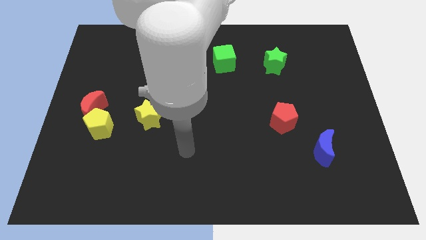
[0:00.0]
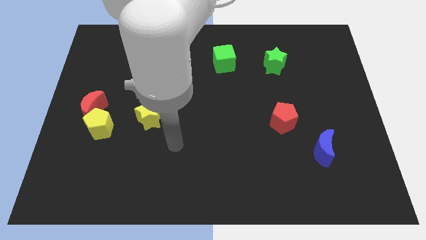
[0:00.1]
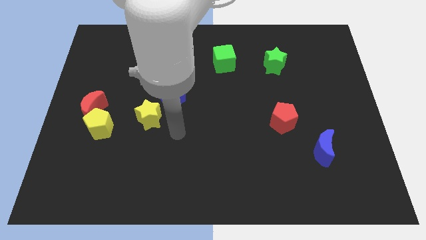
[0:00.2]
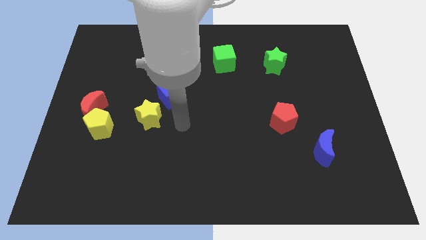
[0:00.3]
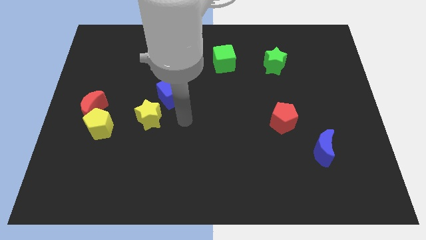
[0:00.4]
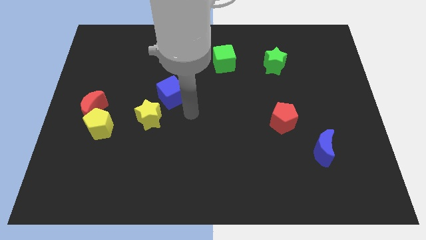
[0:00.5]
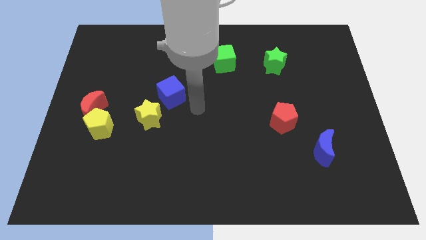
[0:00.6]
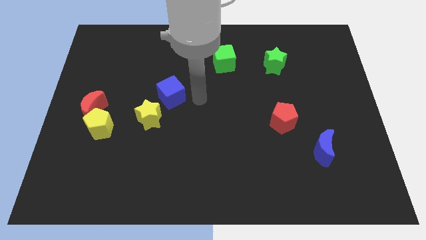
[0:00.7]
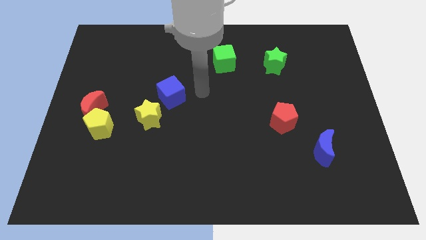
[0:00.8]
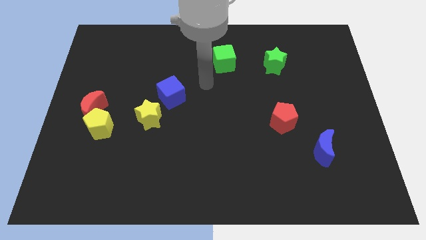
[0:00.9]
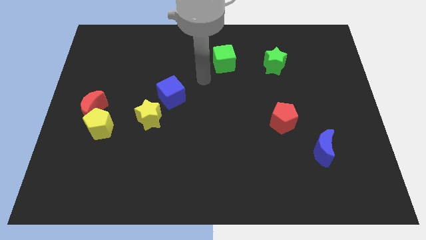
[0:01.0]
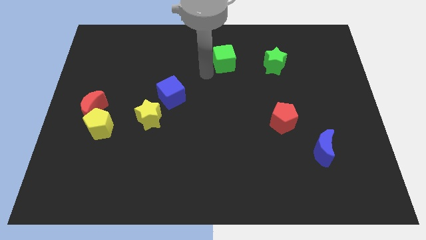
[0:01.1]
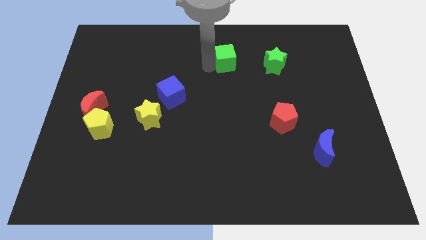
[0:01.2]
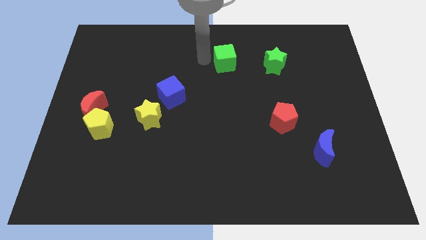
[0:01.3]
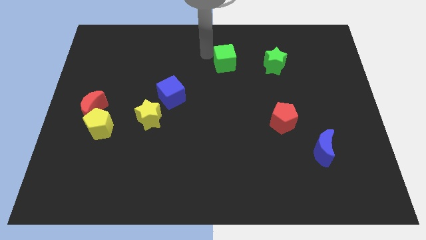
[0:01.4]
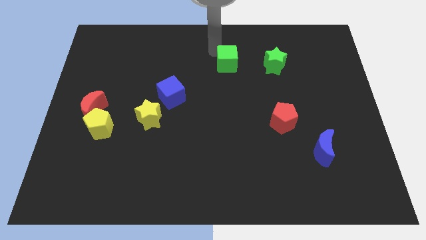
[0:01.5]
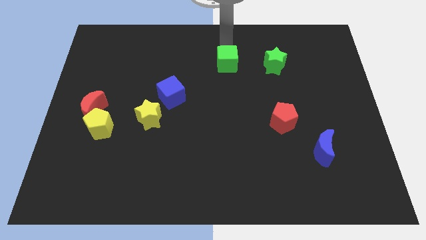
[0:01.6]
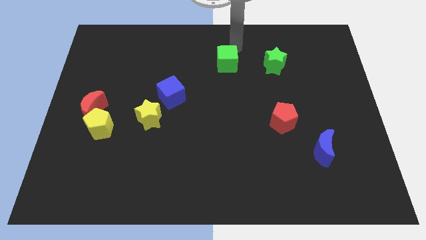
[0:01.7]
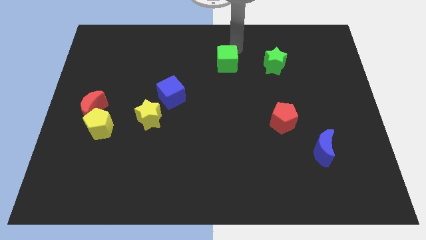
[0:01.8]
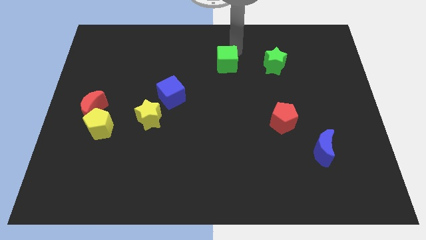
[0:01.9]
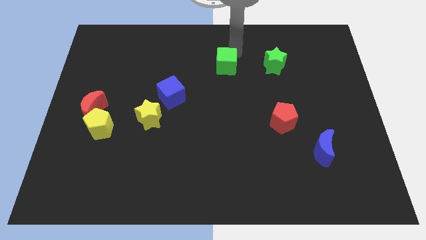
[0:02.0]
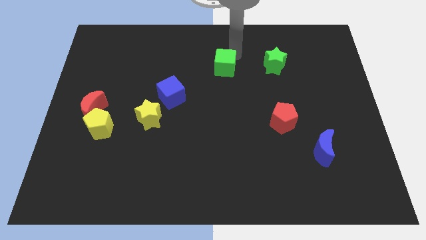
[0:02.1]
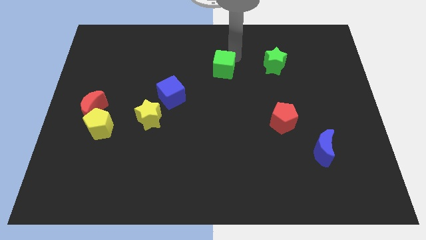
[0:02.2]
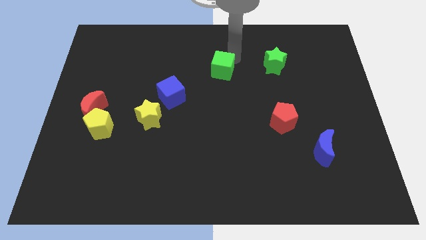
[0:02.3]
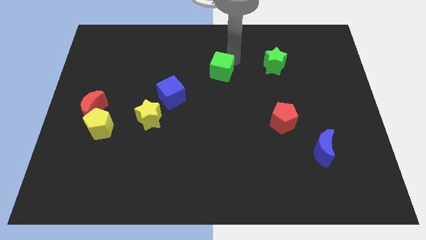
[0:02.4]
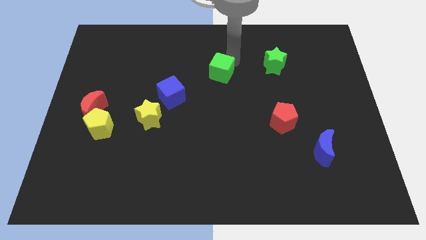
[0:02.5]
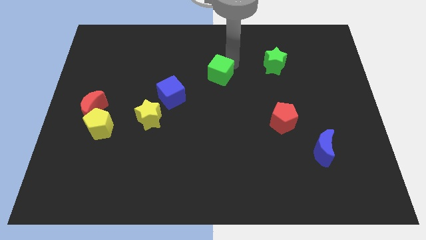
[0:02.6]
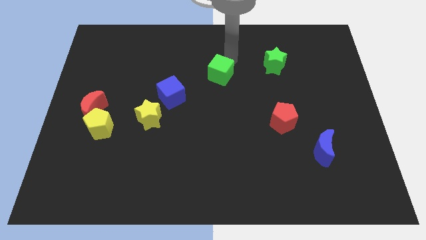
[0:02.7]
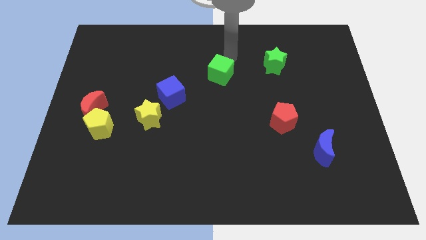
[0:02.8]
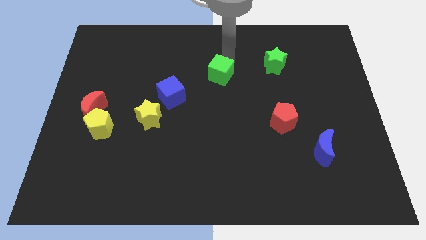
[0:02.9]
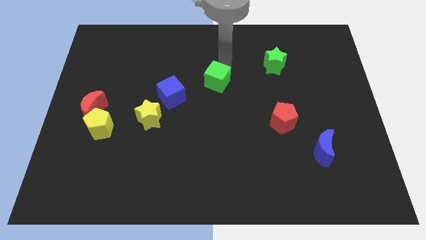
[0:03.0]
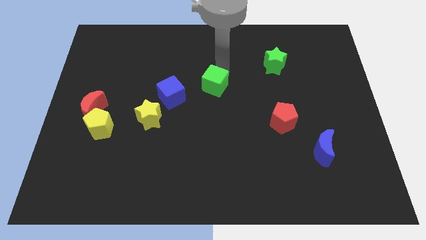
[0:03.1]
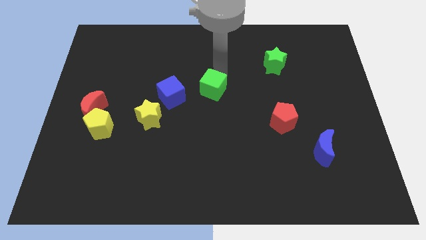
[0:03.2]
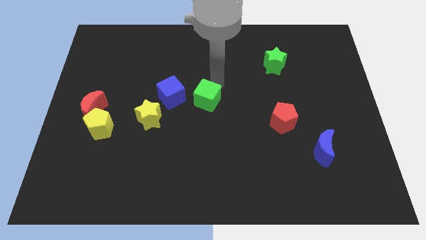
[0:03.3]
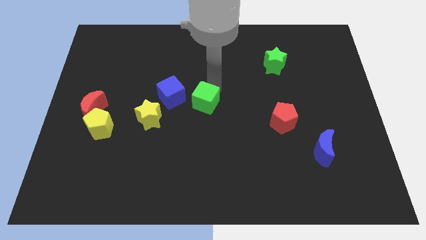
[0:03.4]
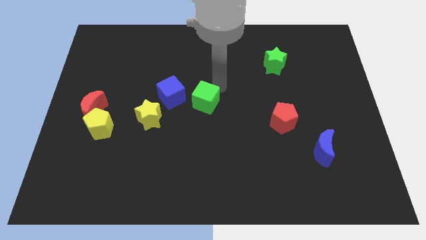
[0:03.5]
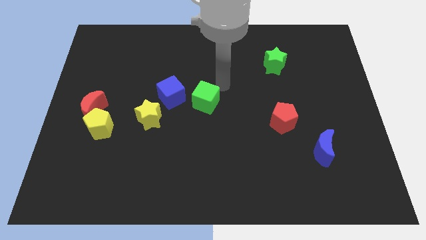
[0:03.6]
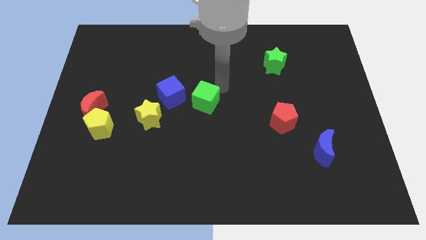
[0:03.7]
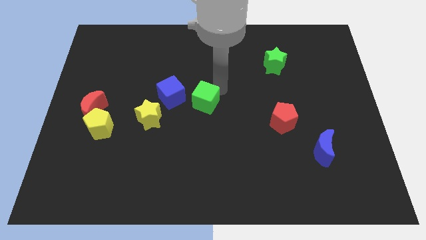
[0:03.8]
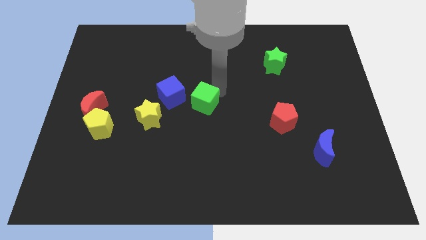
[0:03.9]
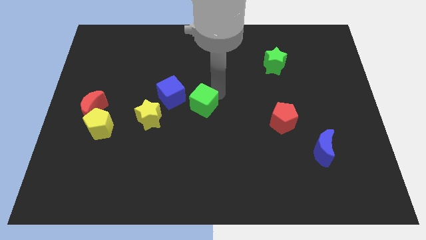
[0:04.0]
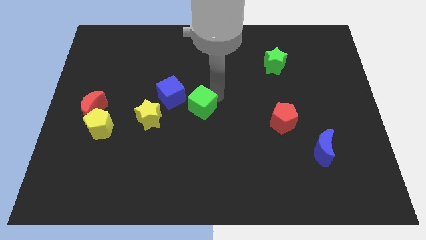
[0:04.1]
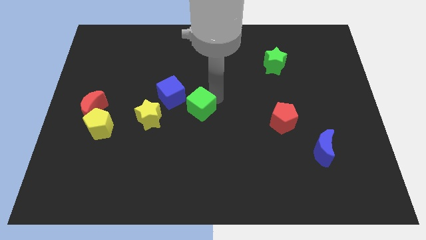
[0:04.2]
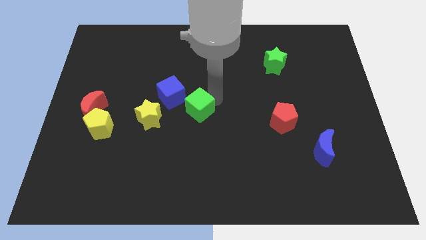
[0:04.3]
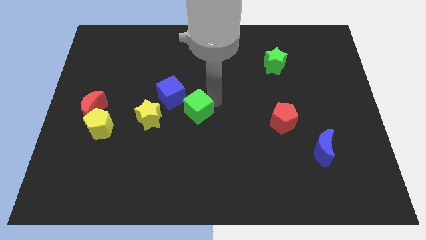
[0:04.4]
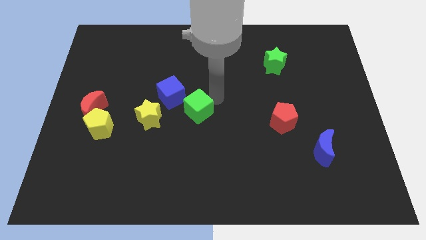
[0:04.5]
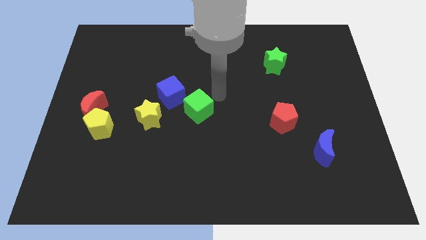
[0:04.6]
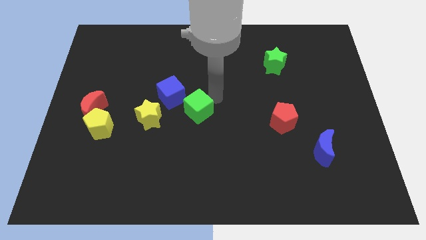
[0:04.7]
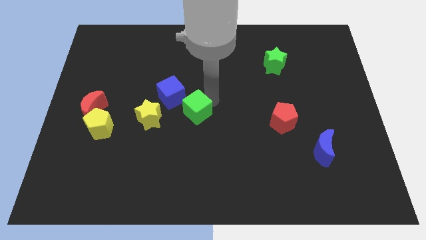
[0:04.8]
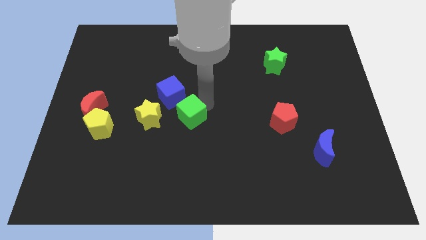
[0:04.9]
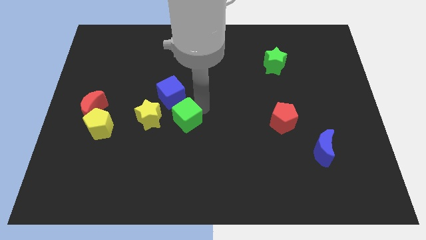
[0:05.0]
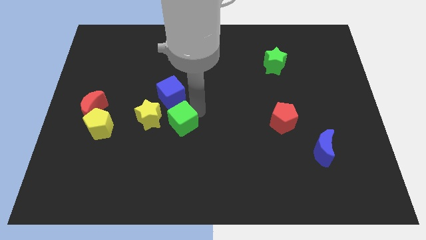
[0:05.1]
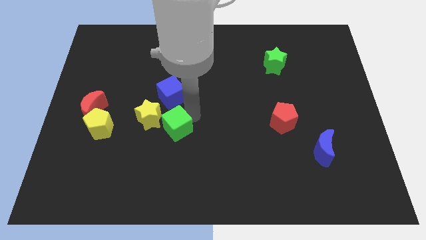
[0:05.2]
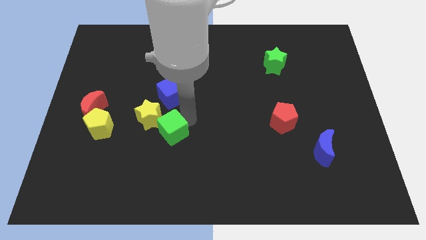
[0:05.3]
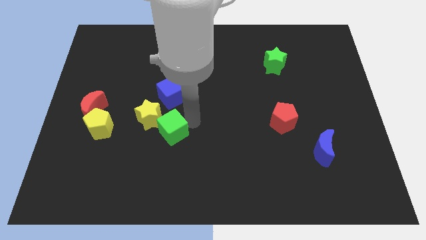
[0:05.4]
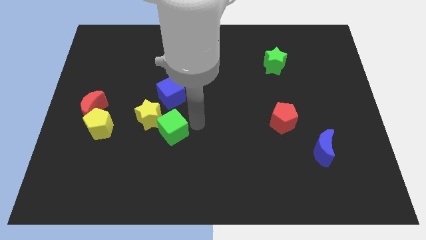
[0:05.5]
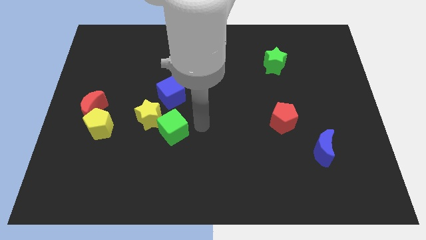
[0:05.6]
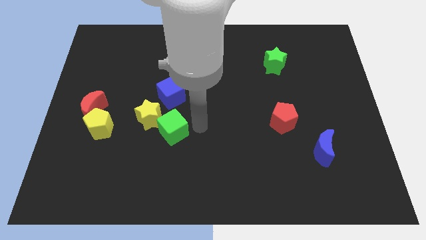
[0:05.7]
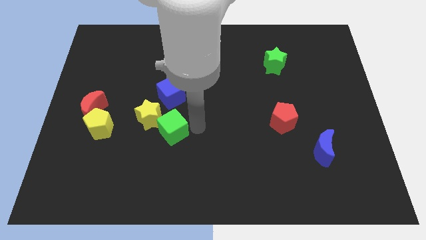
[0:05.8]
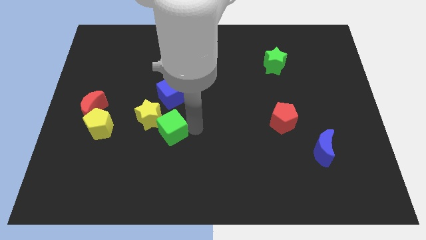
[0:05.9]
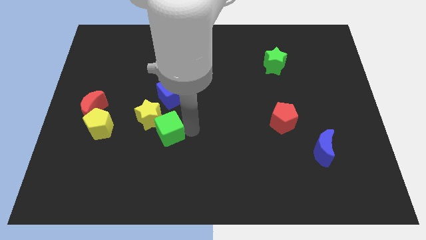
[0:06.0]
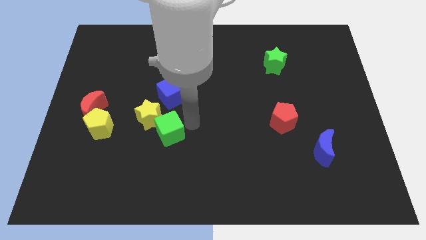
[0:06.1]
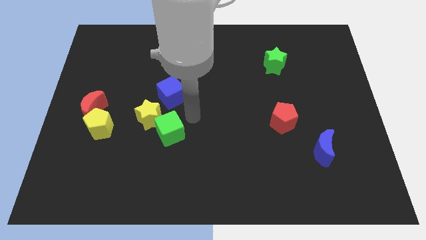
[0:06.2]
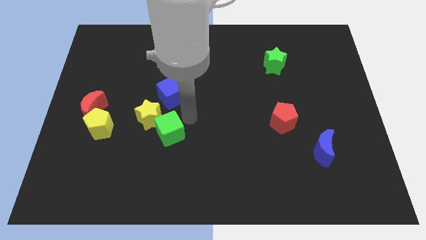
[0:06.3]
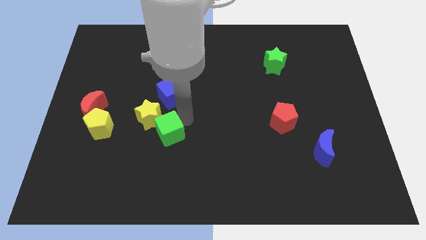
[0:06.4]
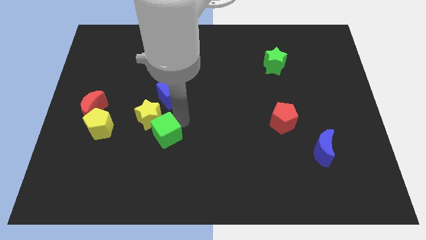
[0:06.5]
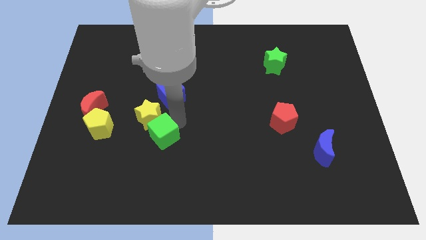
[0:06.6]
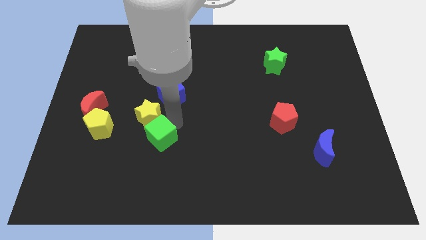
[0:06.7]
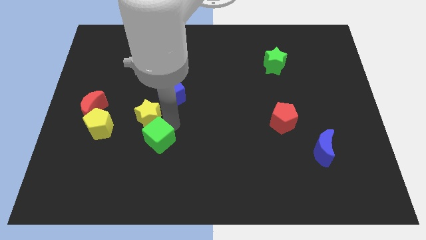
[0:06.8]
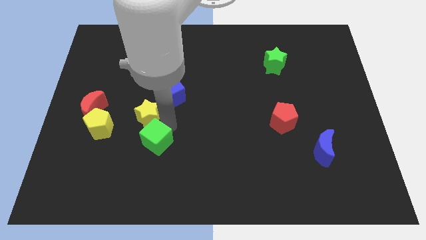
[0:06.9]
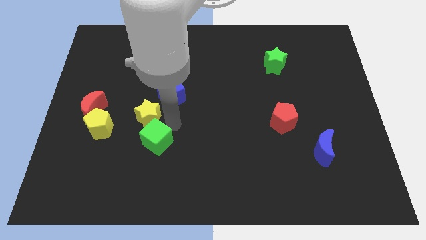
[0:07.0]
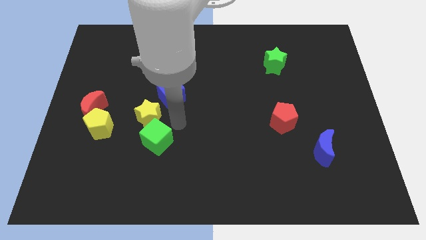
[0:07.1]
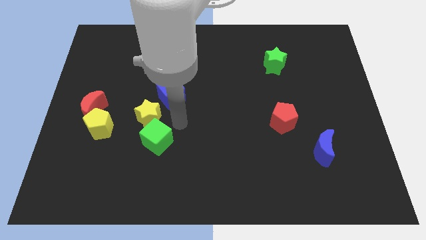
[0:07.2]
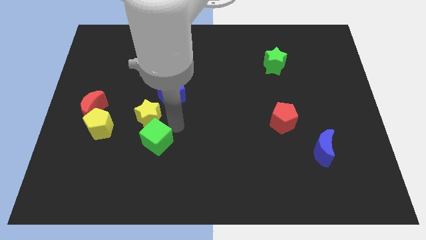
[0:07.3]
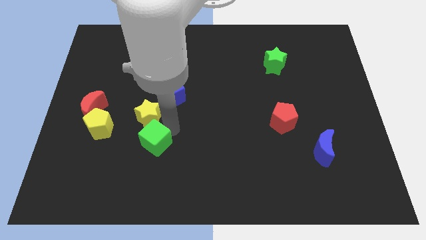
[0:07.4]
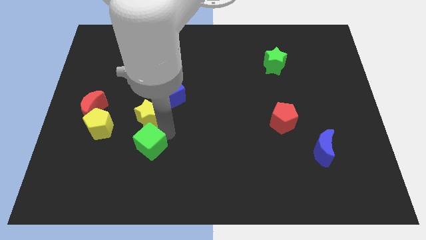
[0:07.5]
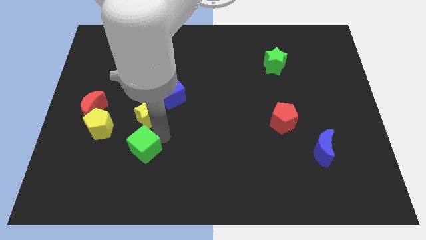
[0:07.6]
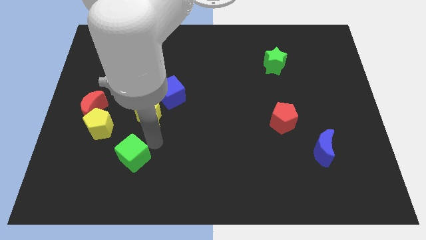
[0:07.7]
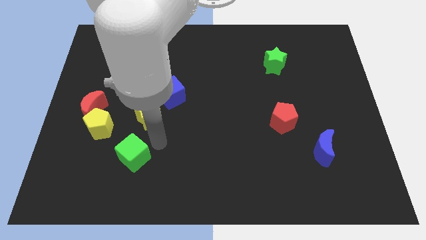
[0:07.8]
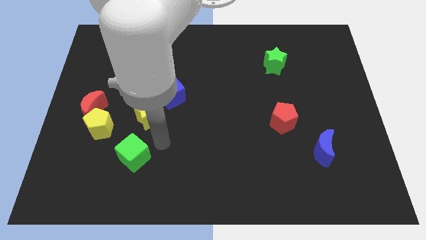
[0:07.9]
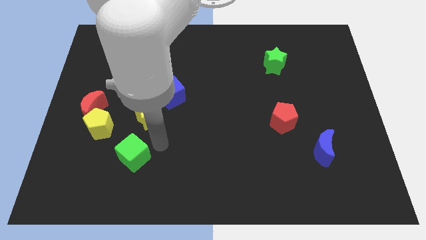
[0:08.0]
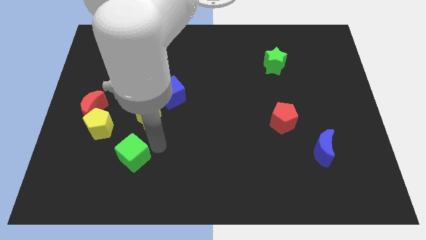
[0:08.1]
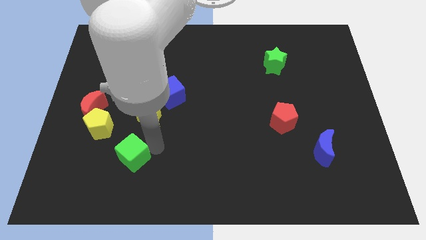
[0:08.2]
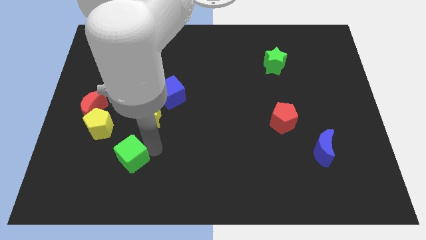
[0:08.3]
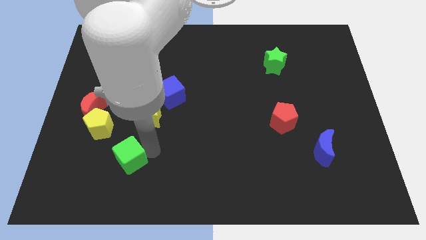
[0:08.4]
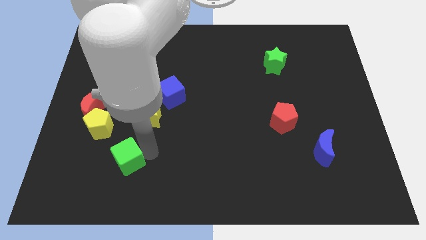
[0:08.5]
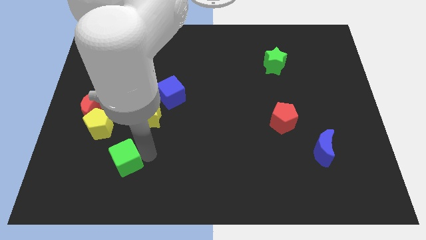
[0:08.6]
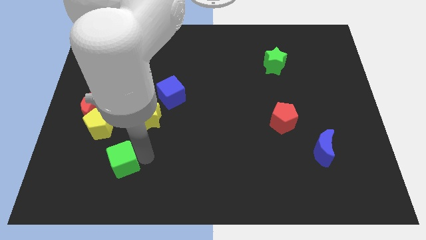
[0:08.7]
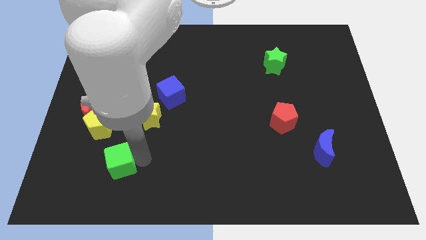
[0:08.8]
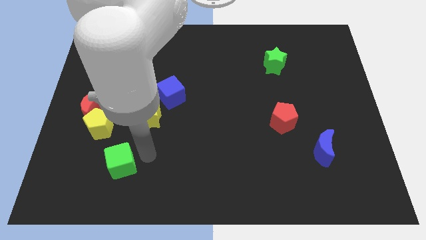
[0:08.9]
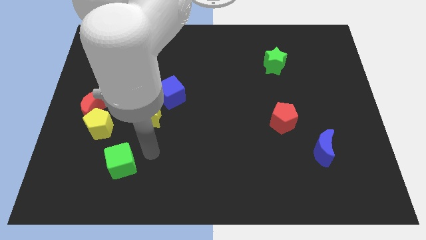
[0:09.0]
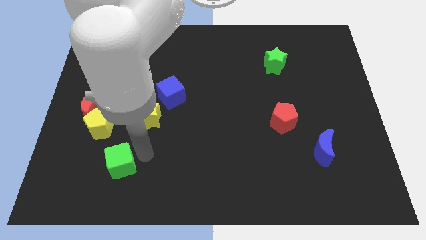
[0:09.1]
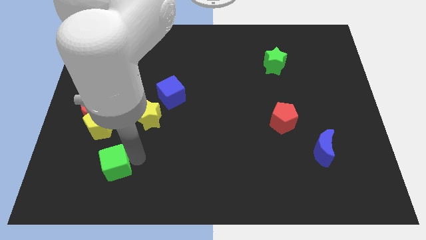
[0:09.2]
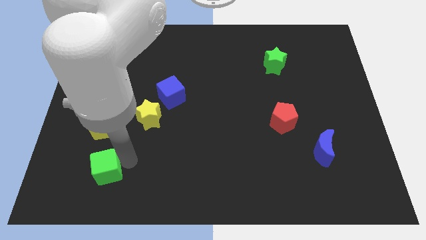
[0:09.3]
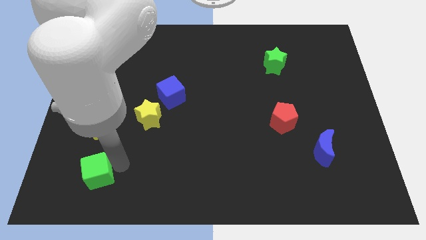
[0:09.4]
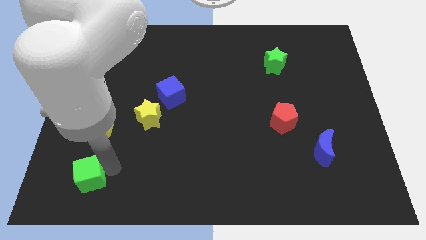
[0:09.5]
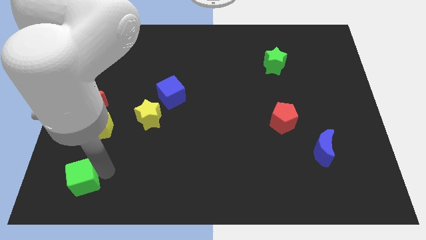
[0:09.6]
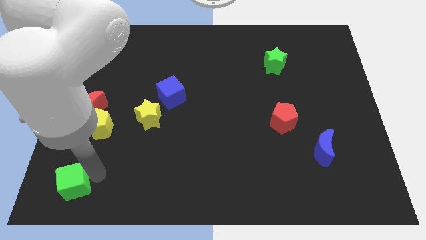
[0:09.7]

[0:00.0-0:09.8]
move the green cube to the bottom left corner
